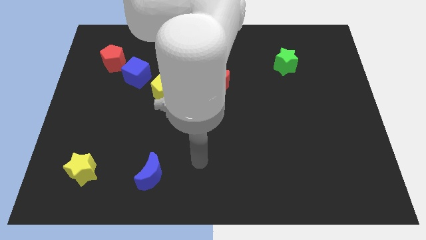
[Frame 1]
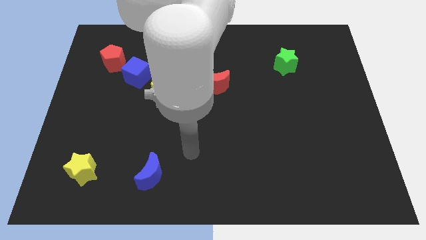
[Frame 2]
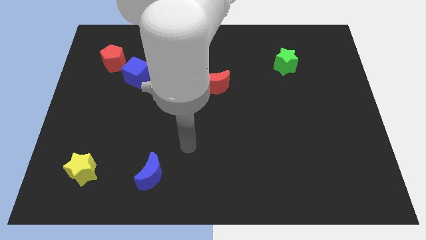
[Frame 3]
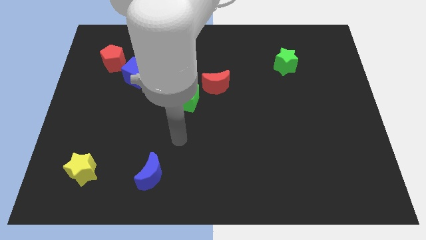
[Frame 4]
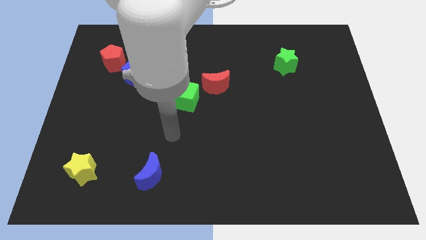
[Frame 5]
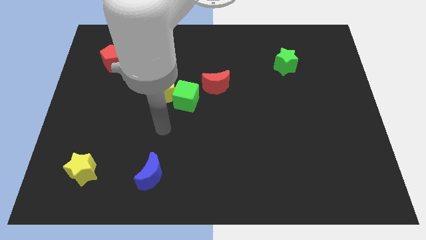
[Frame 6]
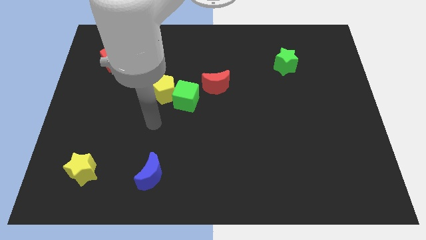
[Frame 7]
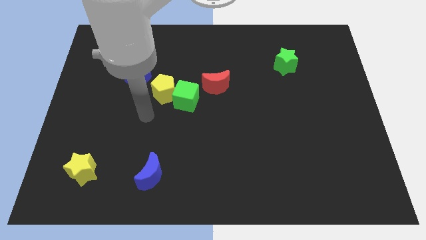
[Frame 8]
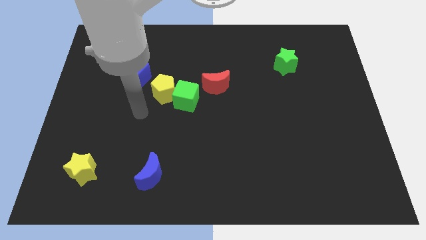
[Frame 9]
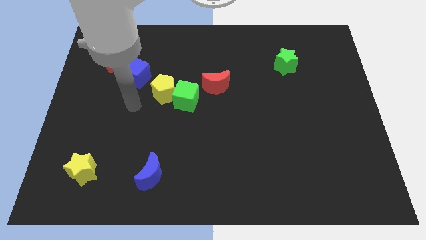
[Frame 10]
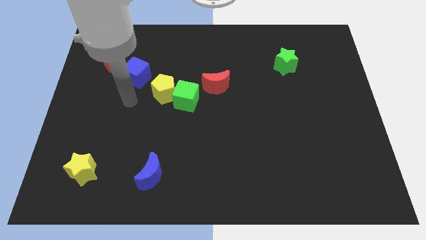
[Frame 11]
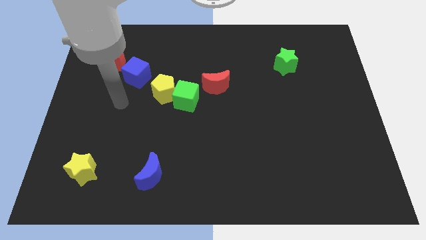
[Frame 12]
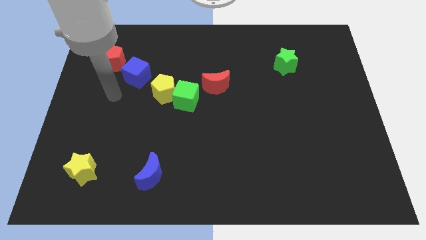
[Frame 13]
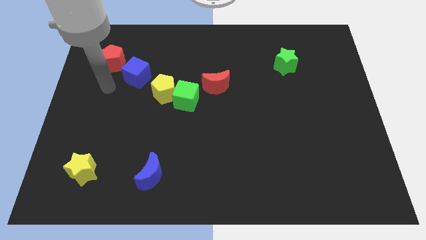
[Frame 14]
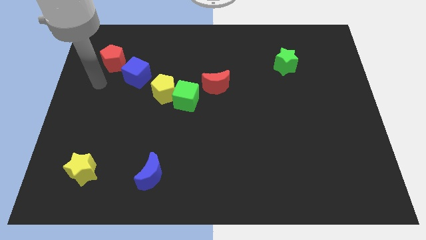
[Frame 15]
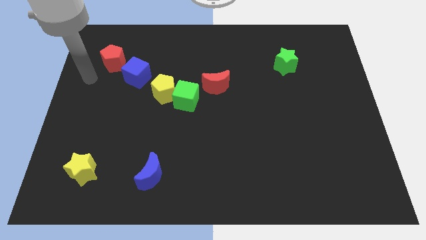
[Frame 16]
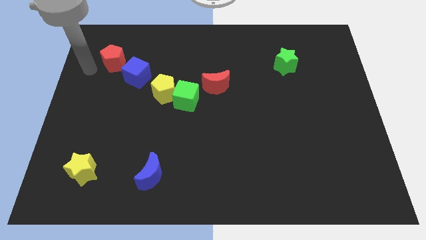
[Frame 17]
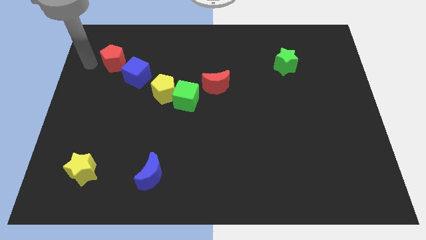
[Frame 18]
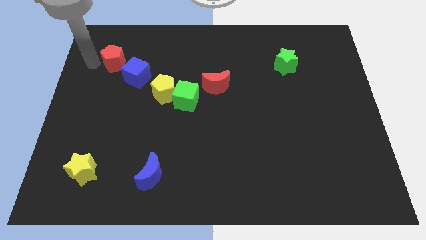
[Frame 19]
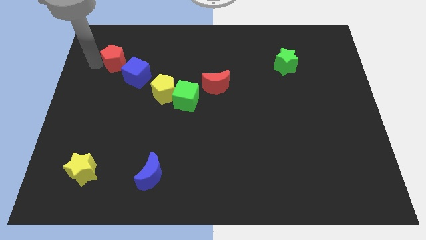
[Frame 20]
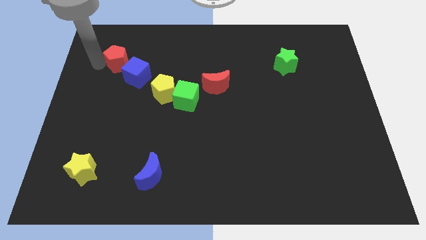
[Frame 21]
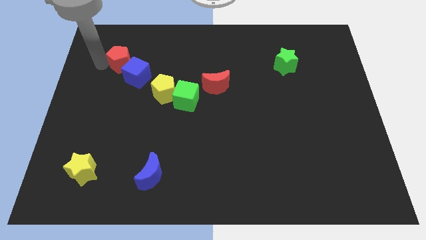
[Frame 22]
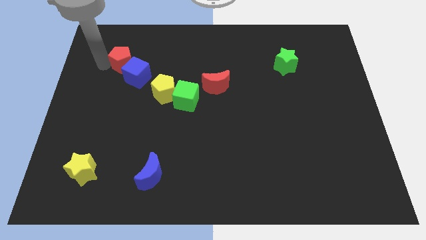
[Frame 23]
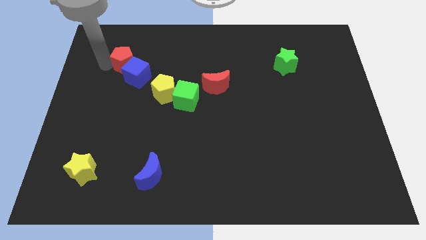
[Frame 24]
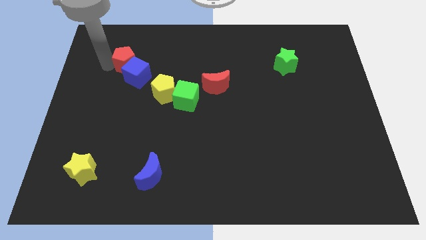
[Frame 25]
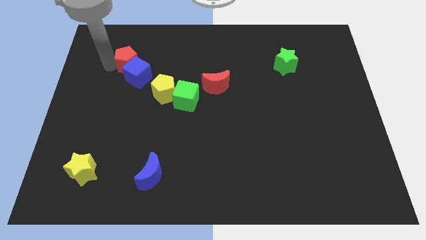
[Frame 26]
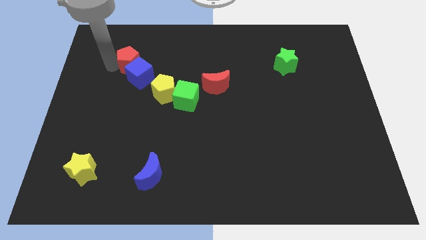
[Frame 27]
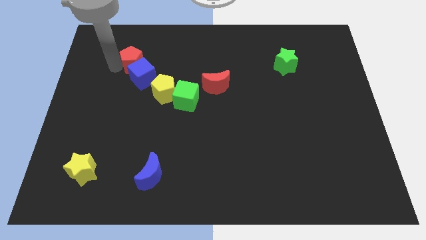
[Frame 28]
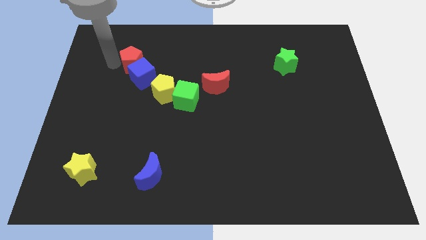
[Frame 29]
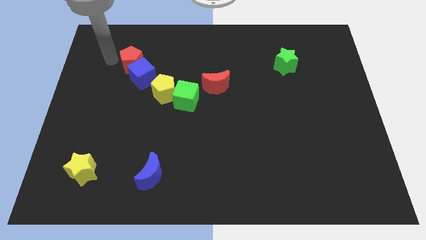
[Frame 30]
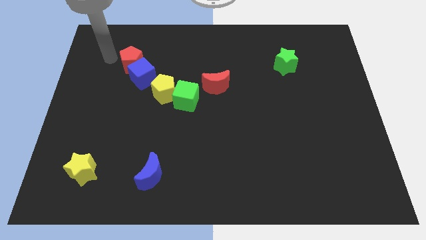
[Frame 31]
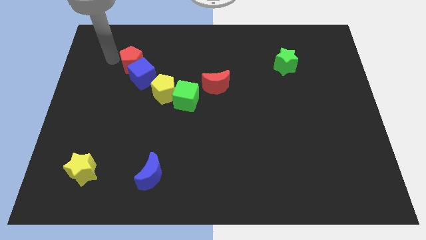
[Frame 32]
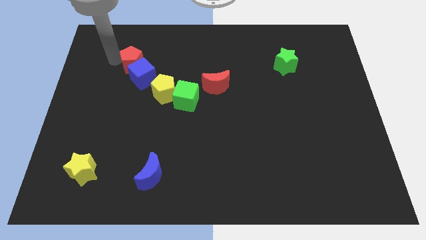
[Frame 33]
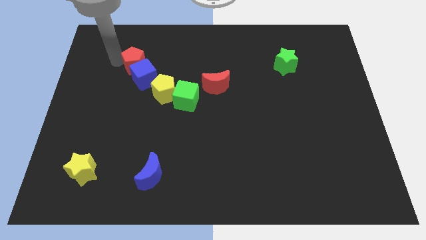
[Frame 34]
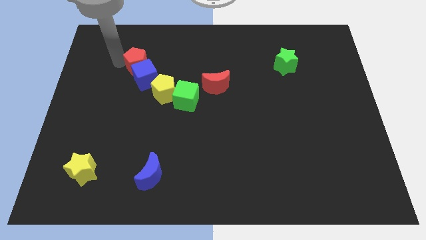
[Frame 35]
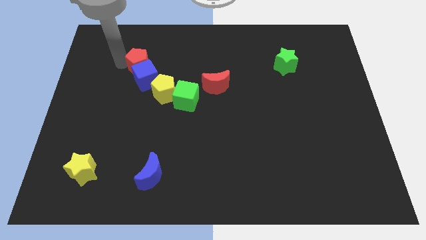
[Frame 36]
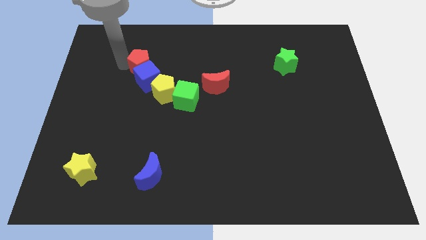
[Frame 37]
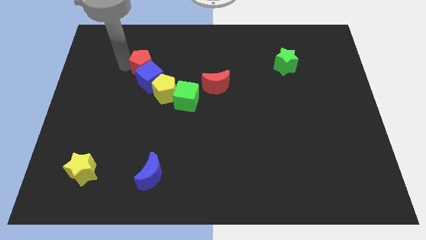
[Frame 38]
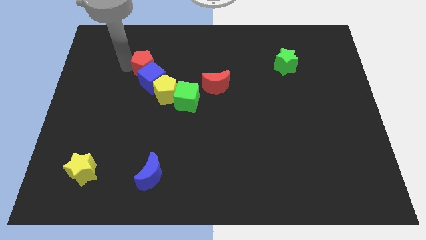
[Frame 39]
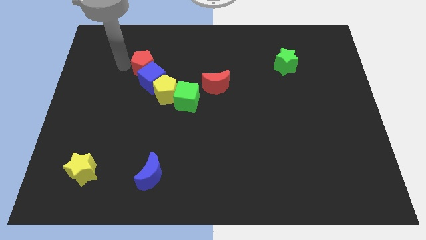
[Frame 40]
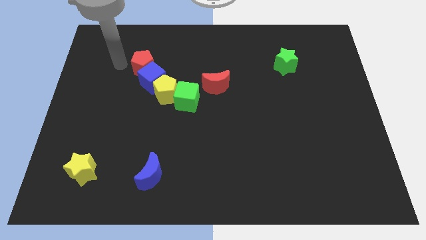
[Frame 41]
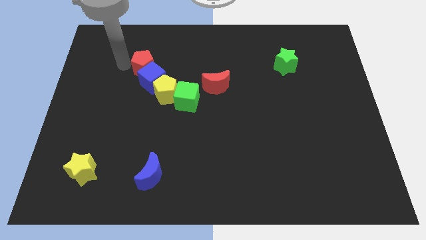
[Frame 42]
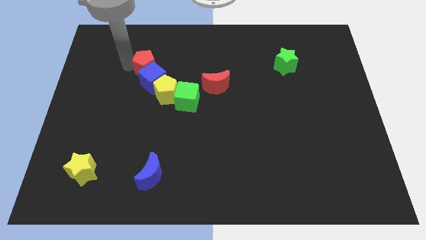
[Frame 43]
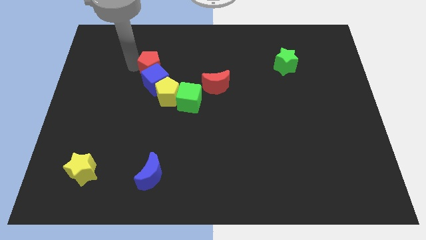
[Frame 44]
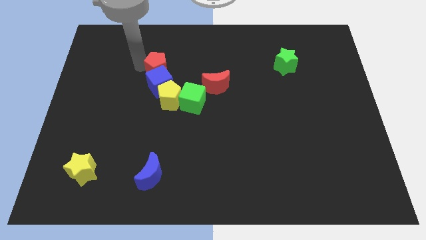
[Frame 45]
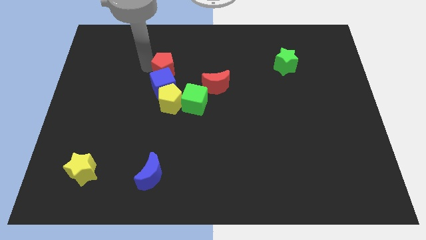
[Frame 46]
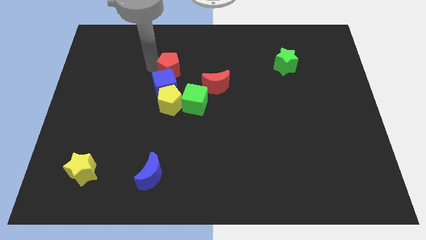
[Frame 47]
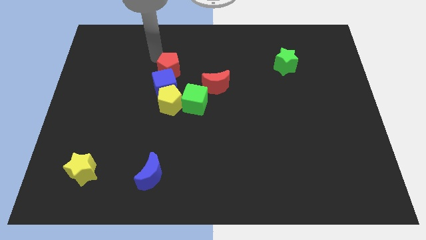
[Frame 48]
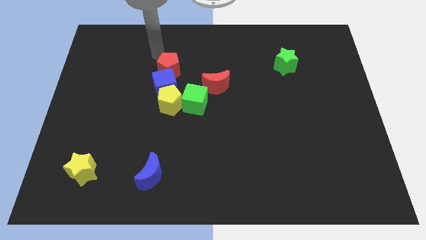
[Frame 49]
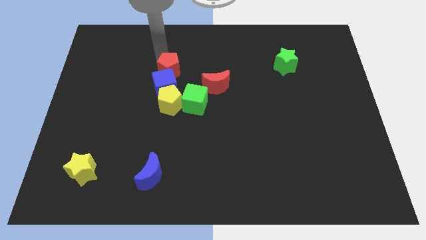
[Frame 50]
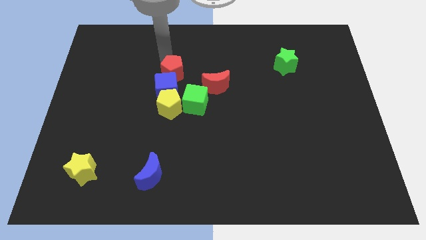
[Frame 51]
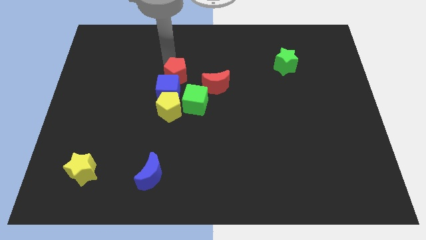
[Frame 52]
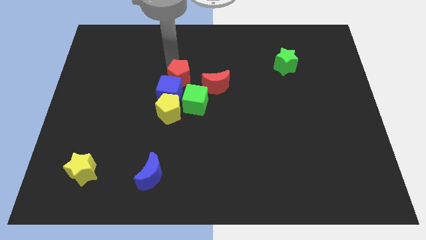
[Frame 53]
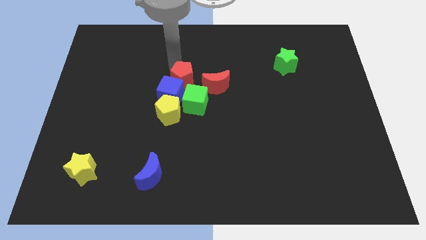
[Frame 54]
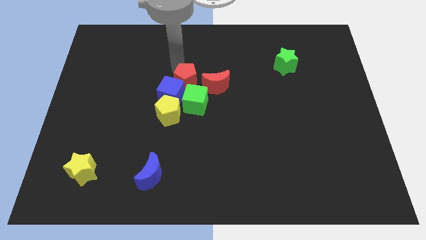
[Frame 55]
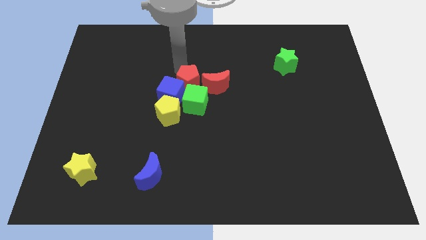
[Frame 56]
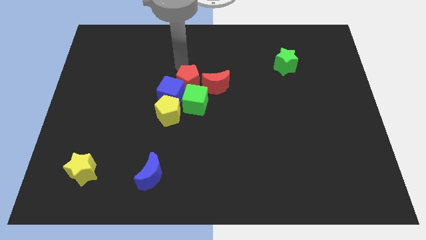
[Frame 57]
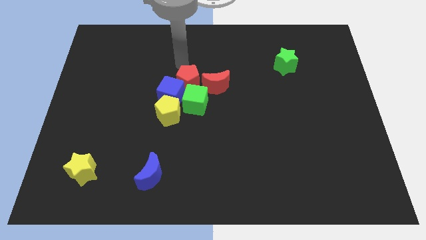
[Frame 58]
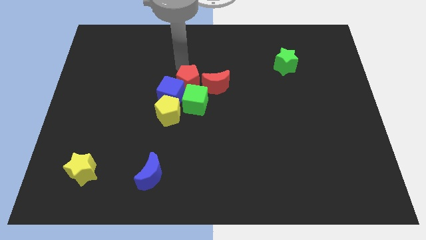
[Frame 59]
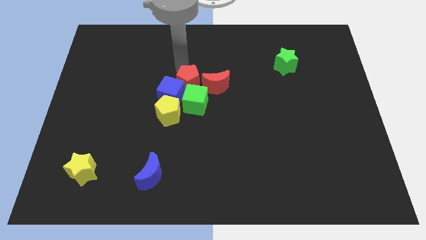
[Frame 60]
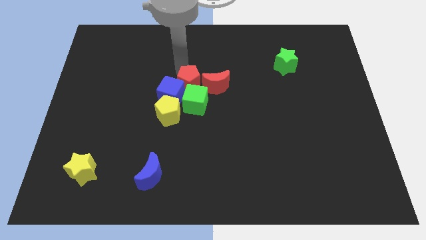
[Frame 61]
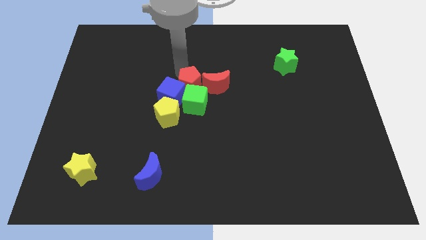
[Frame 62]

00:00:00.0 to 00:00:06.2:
slide the red pentagon close to the green cube

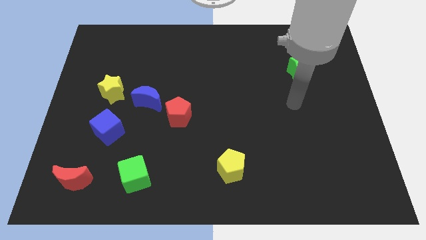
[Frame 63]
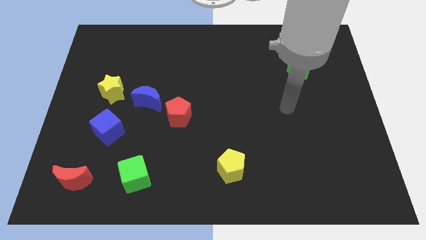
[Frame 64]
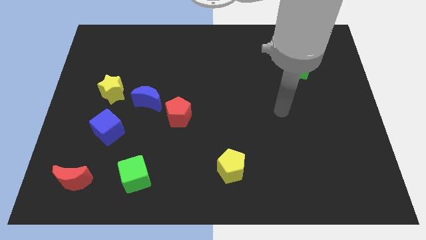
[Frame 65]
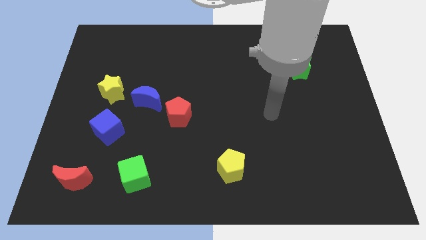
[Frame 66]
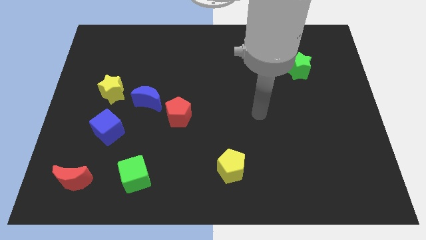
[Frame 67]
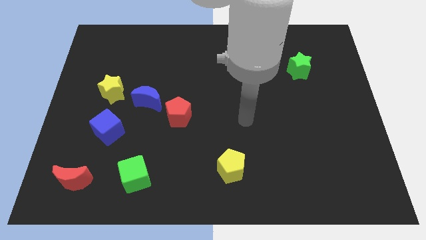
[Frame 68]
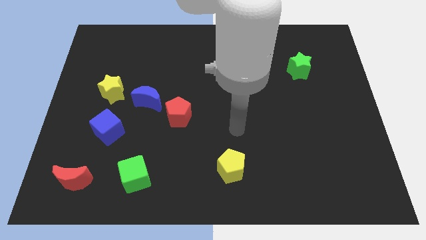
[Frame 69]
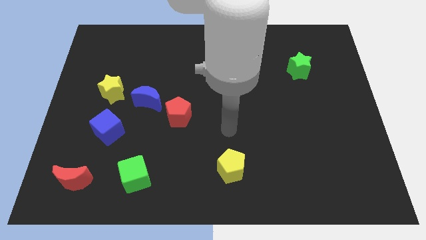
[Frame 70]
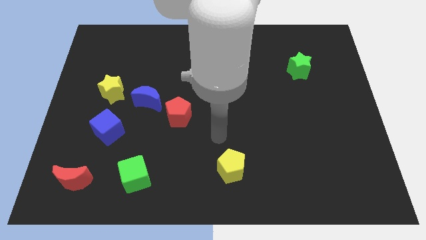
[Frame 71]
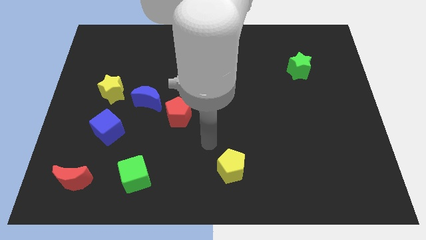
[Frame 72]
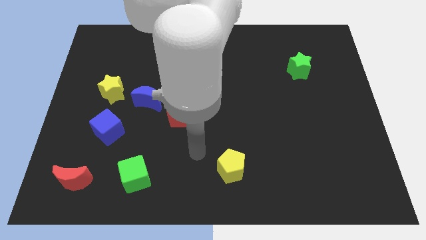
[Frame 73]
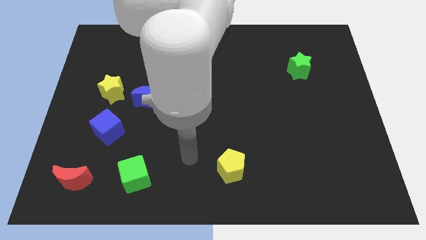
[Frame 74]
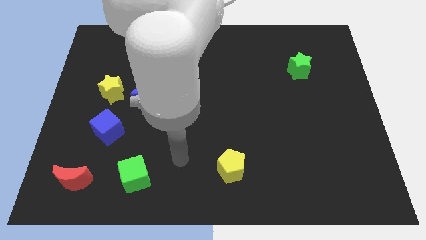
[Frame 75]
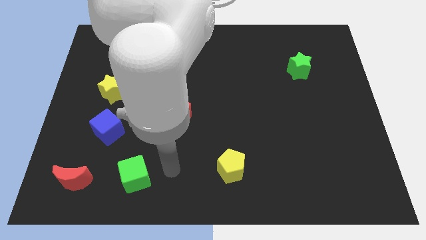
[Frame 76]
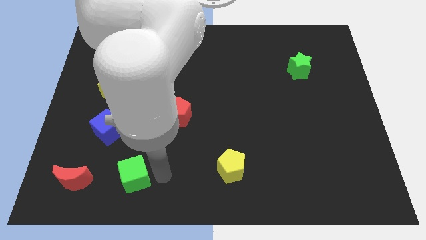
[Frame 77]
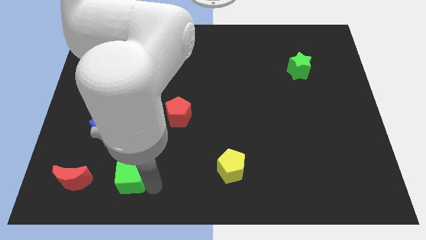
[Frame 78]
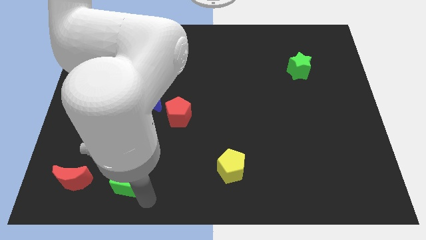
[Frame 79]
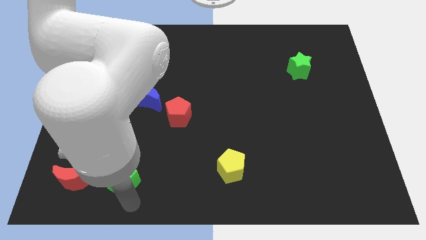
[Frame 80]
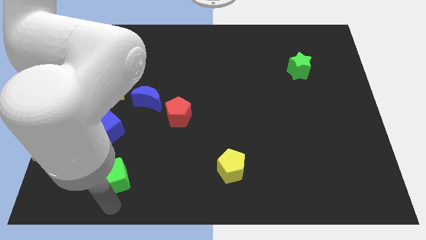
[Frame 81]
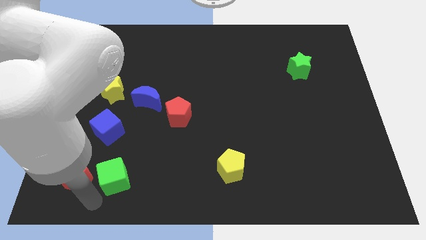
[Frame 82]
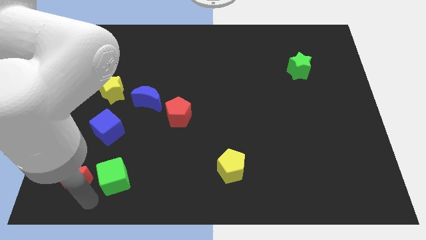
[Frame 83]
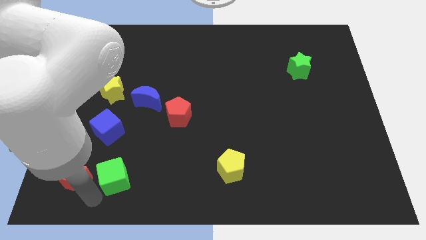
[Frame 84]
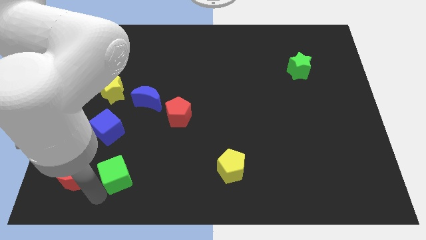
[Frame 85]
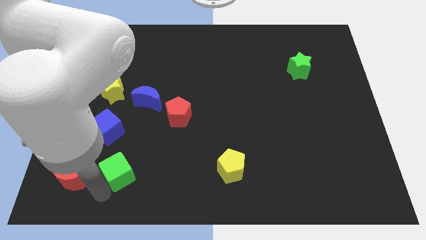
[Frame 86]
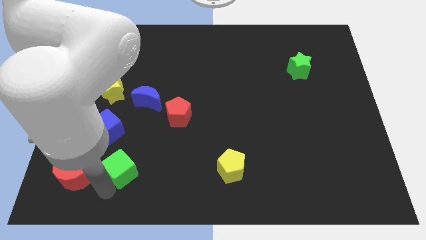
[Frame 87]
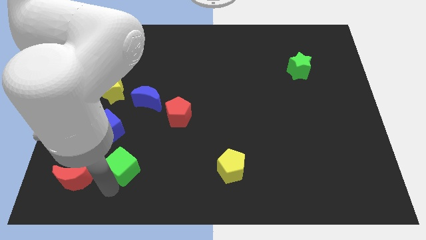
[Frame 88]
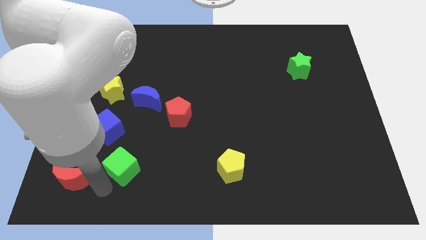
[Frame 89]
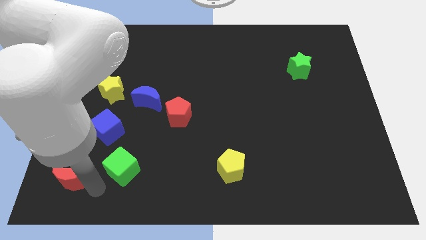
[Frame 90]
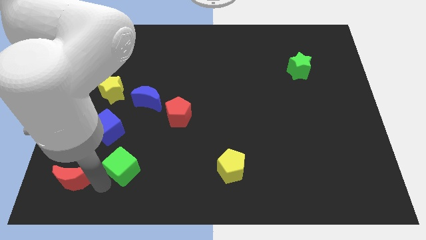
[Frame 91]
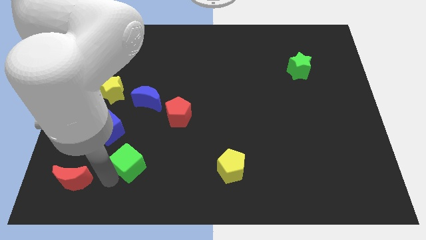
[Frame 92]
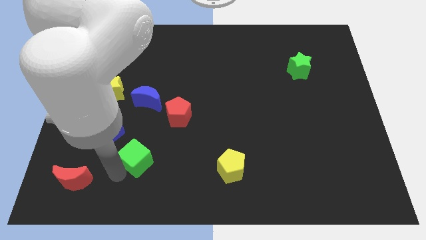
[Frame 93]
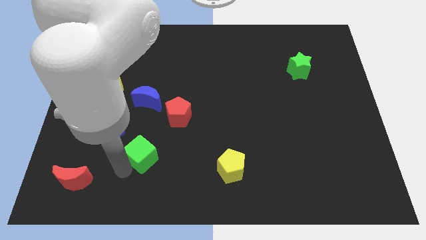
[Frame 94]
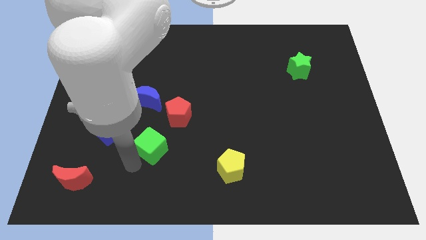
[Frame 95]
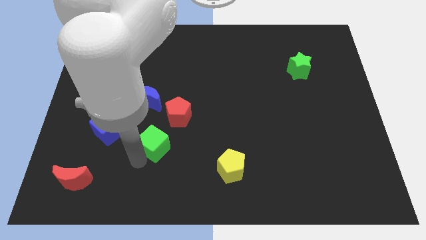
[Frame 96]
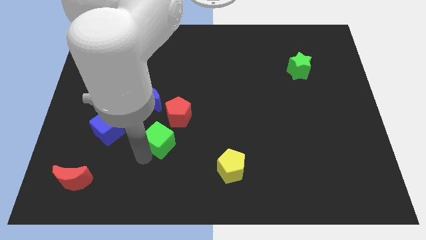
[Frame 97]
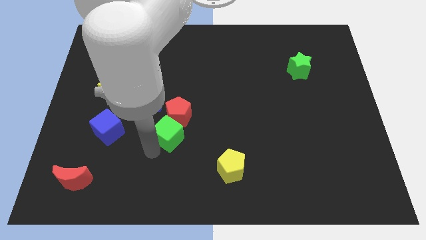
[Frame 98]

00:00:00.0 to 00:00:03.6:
move the green cube towards the red pentagon
